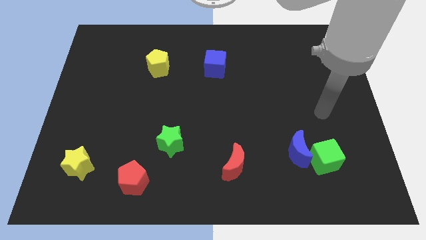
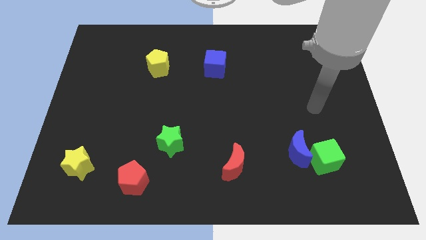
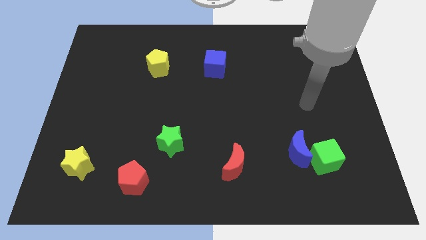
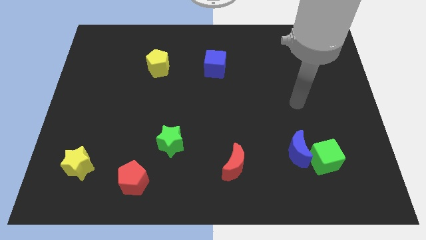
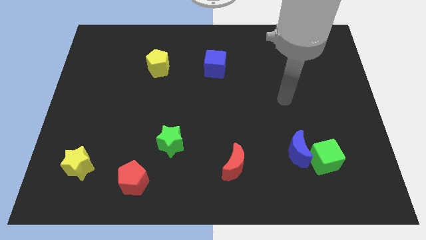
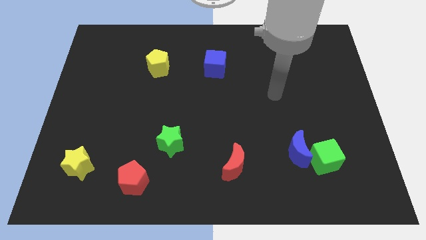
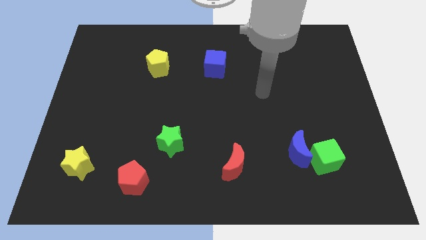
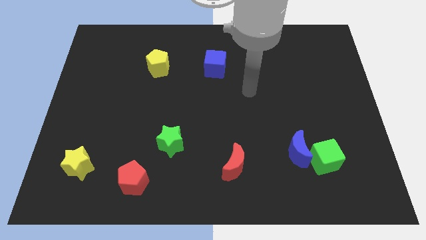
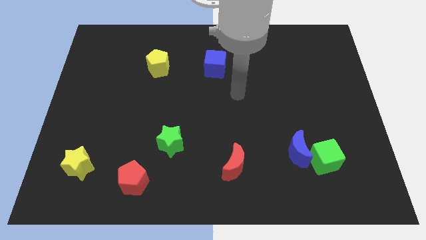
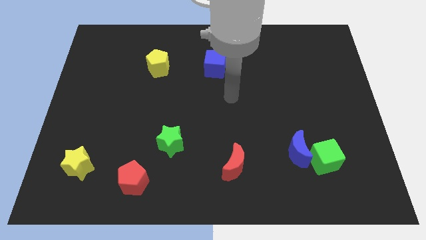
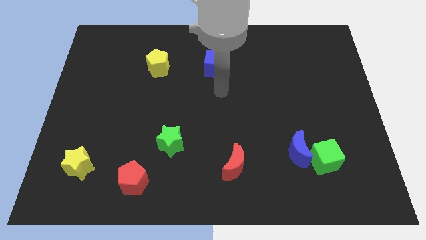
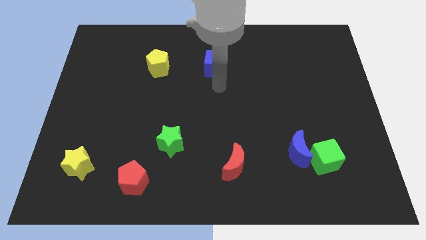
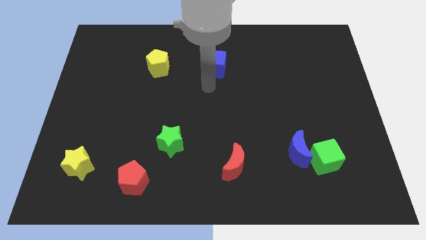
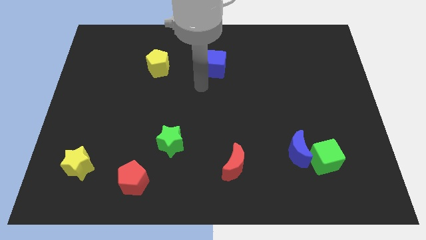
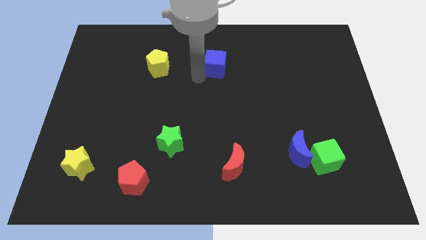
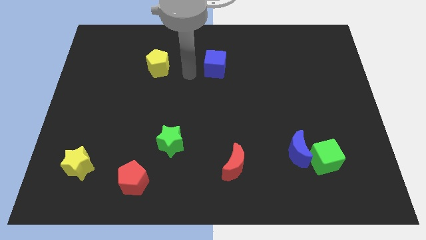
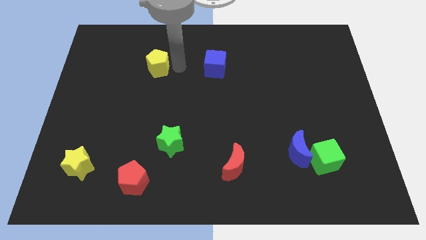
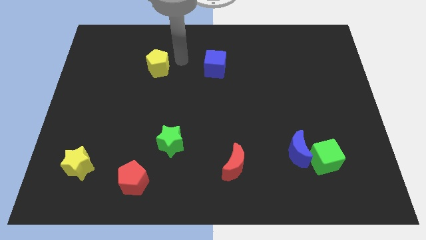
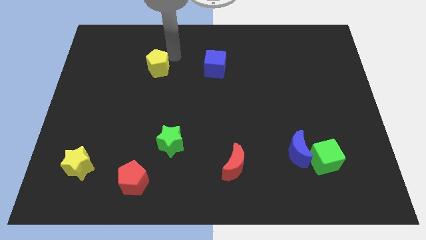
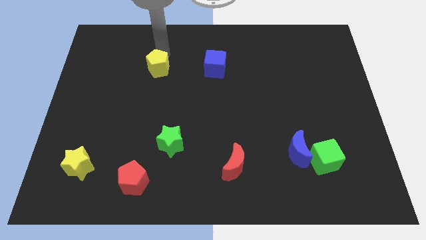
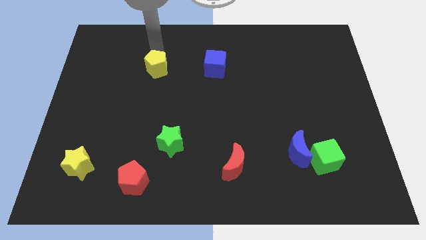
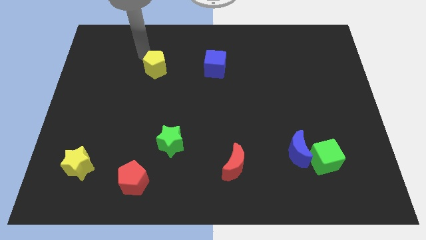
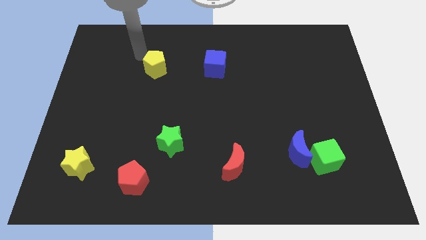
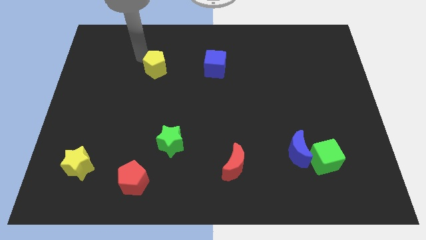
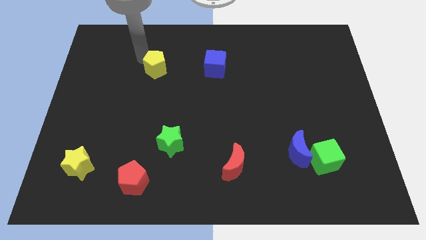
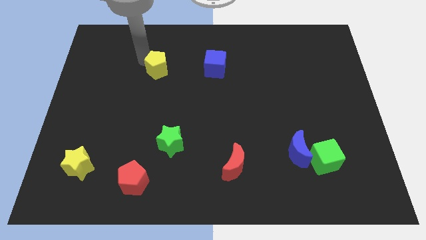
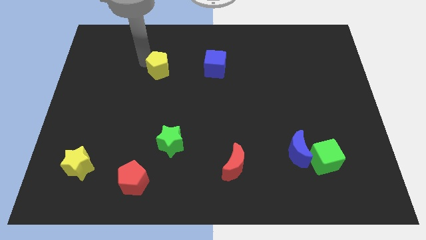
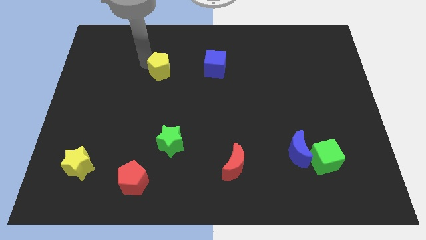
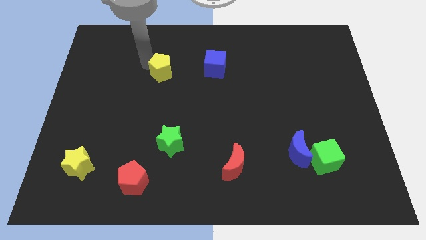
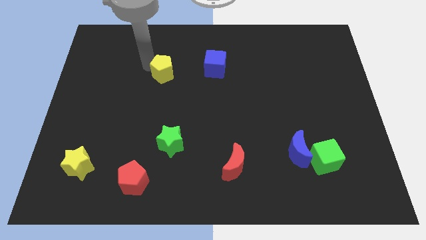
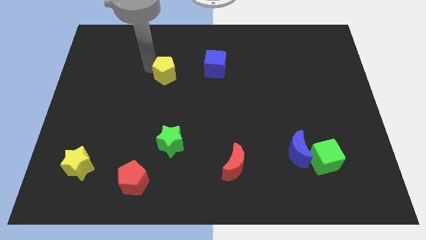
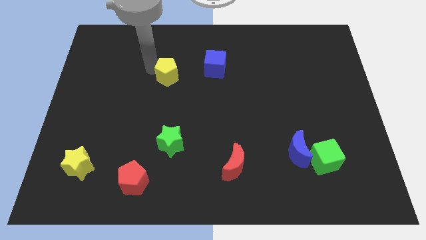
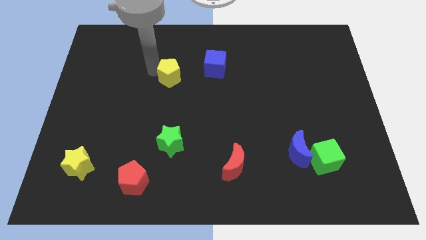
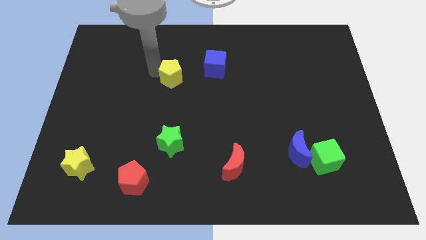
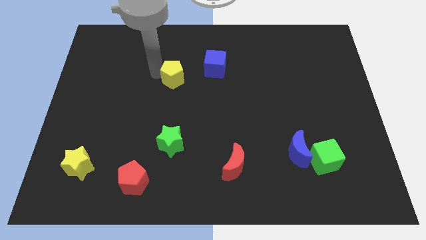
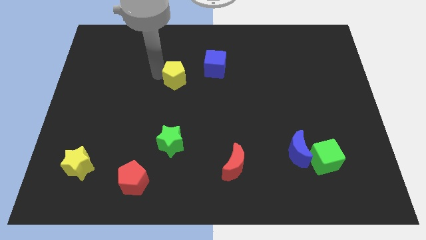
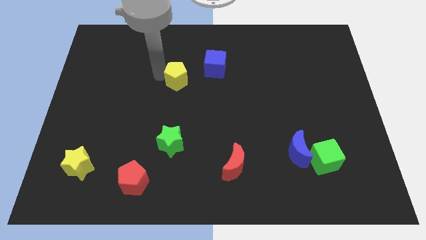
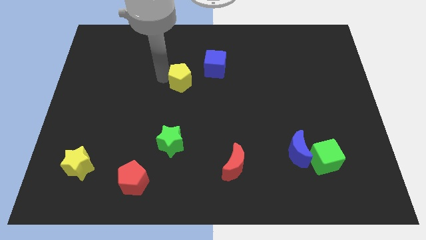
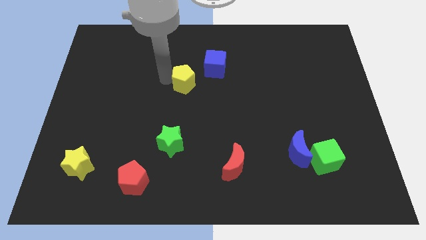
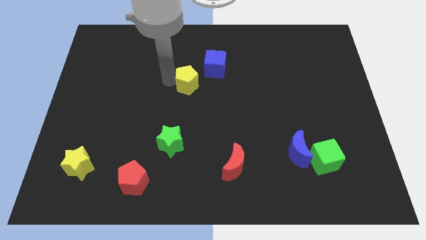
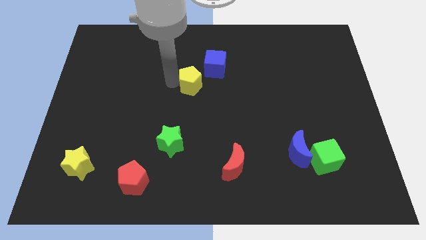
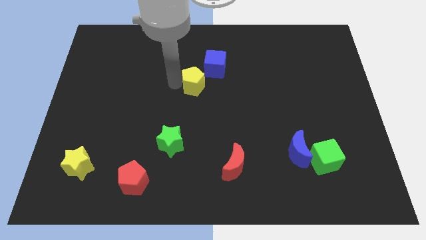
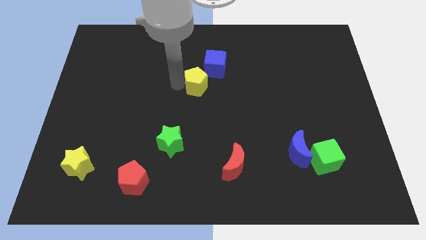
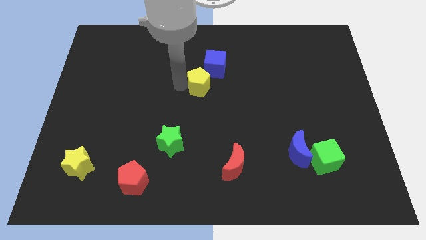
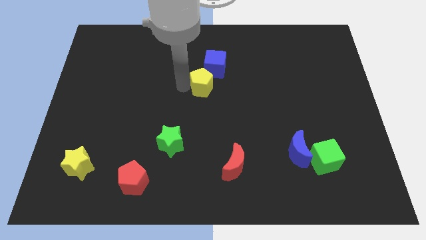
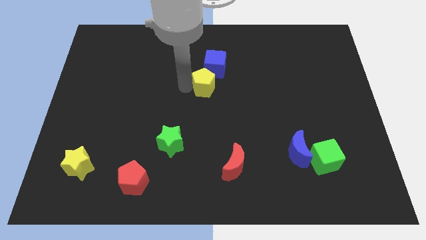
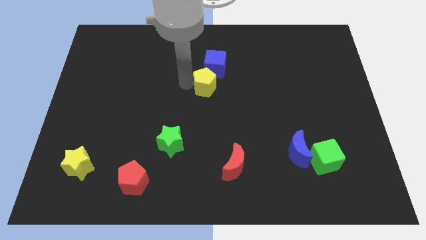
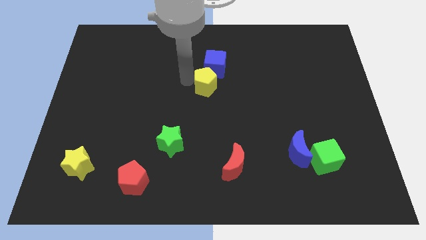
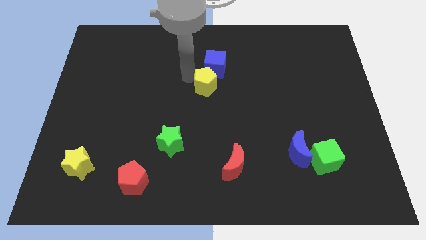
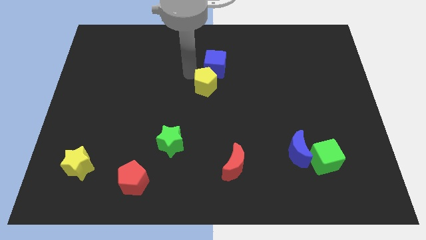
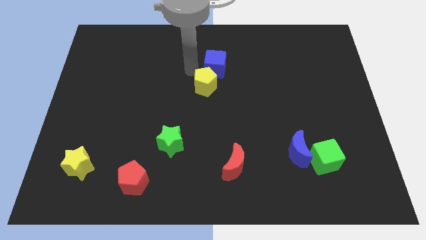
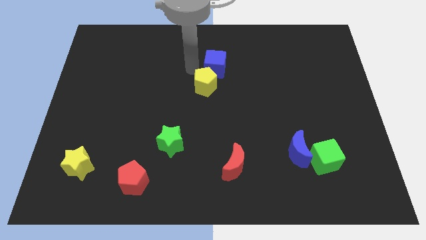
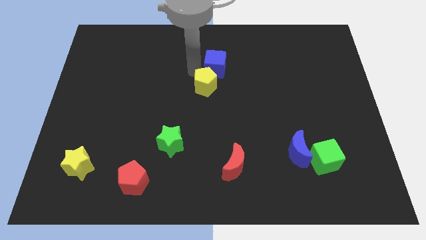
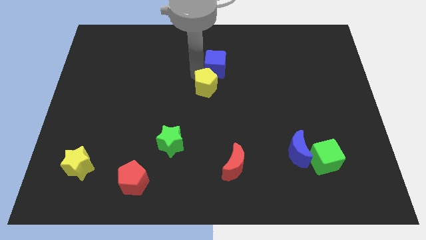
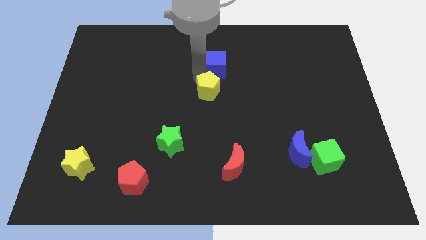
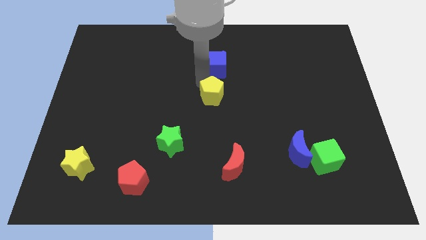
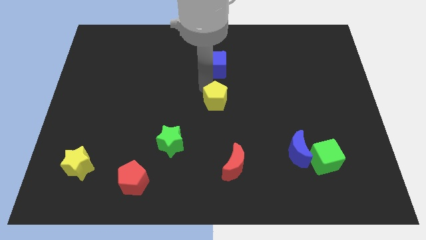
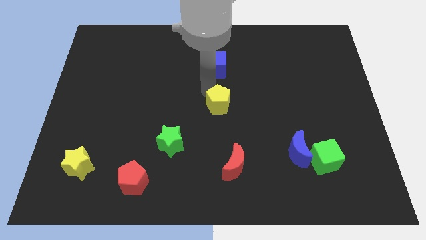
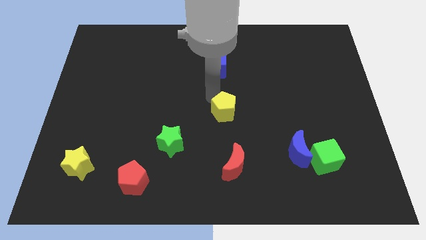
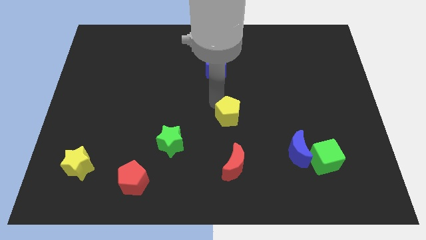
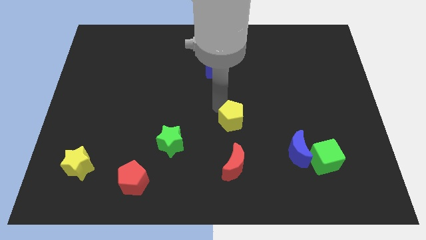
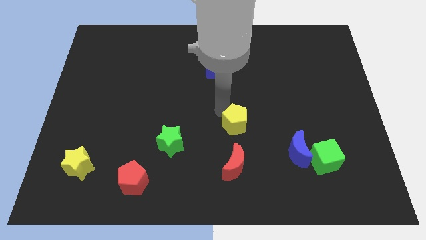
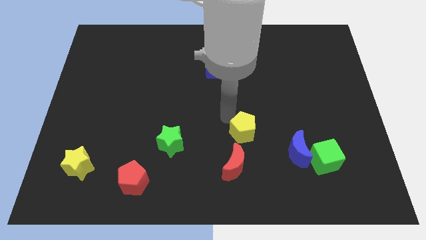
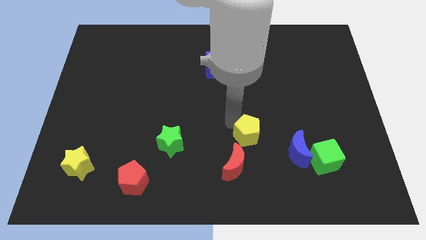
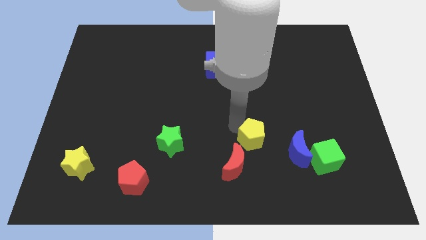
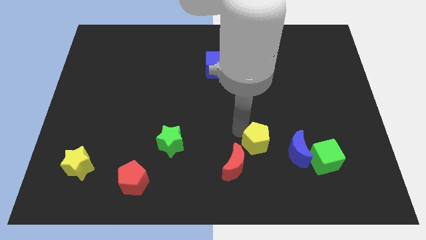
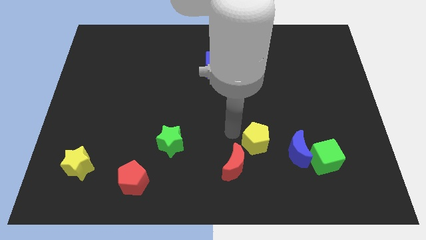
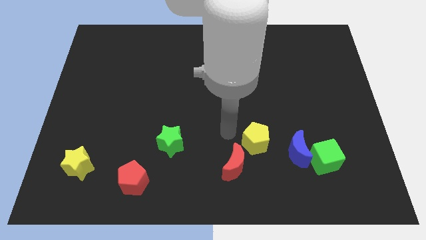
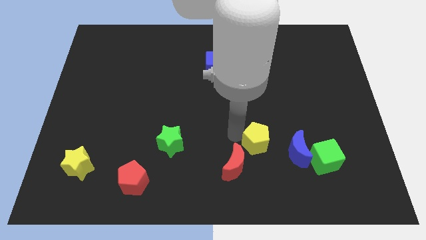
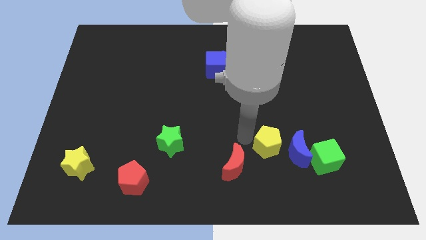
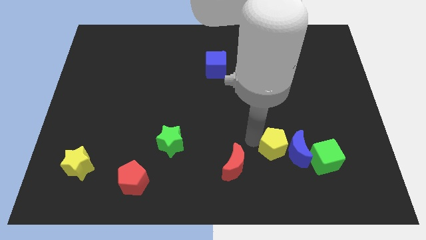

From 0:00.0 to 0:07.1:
push the yellow pentagon towards the blue moon

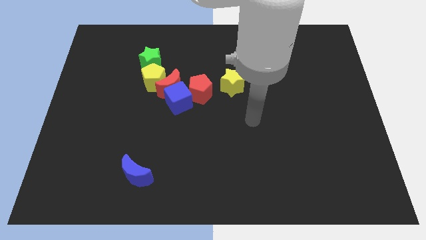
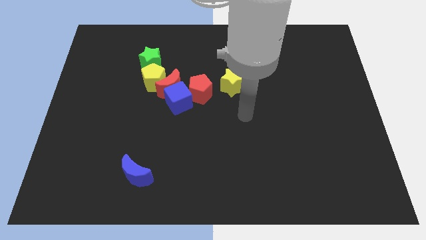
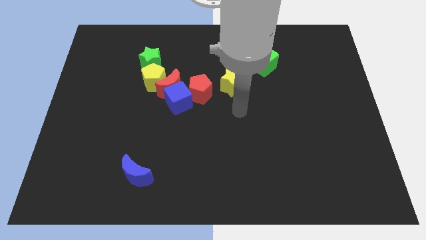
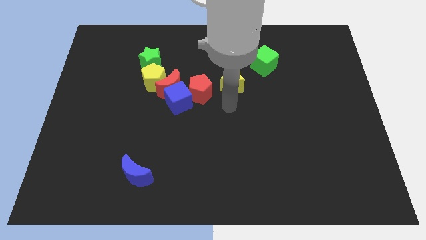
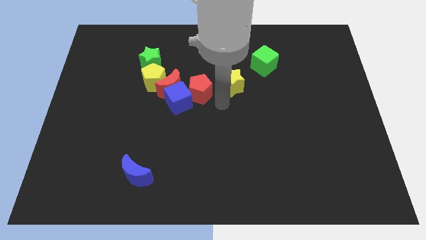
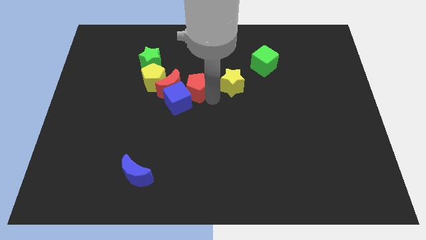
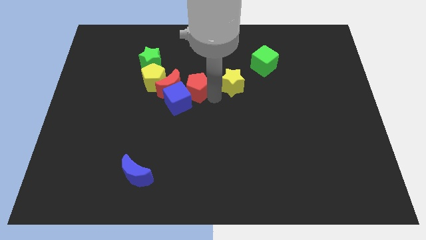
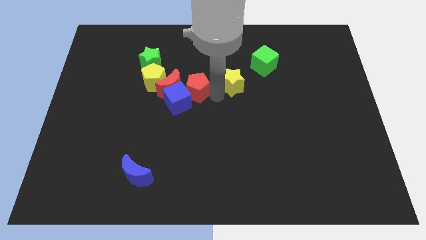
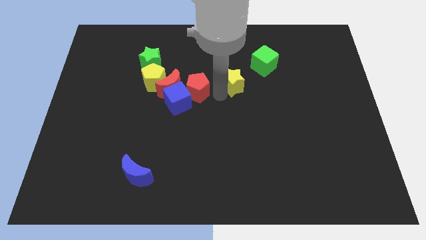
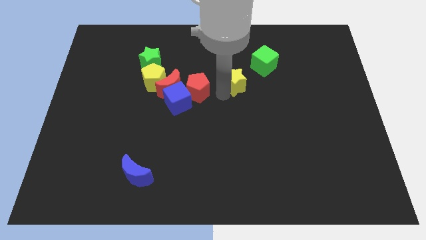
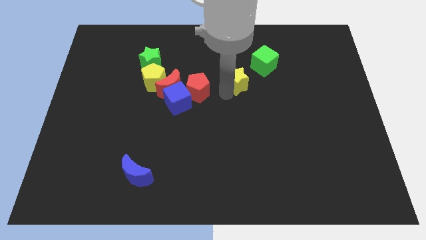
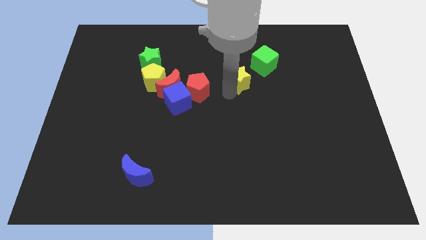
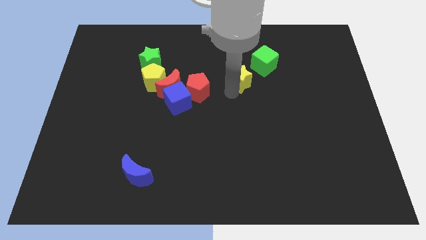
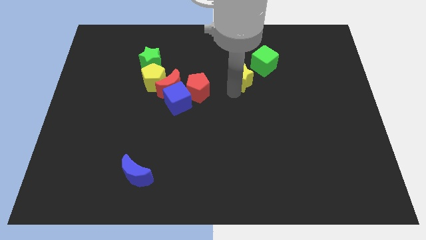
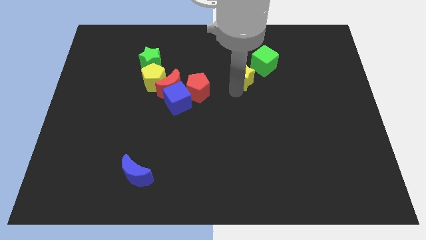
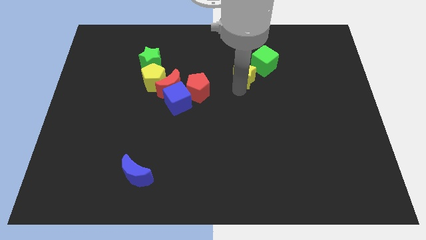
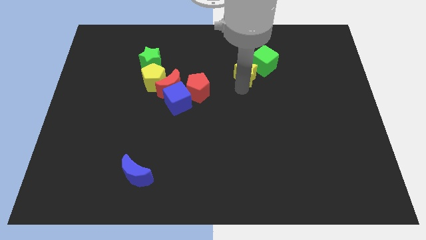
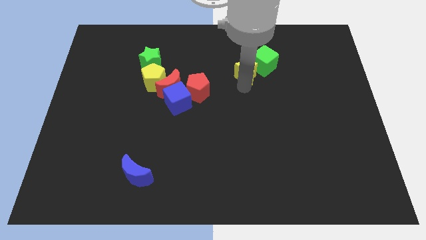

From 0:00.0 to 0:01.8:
push the yellow star next to the green cube
